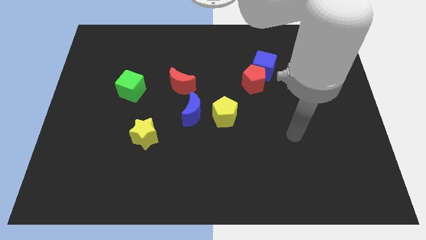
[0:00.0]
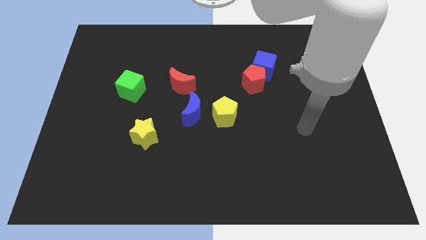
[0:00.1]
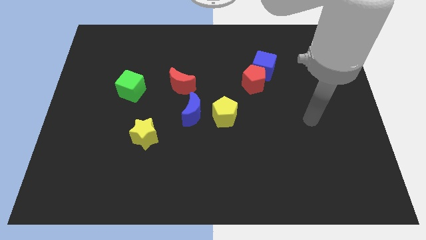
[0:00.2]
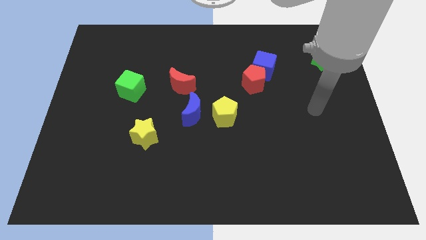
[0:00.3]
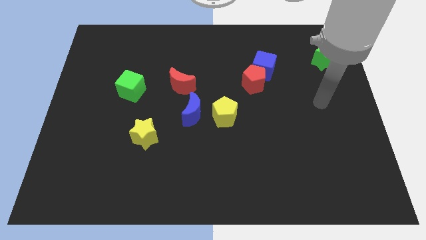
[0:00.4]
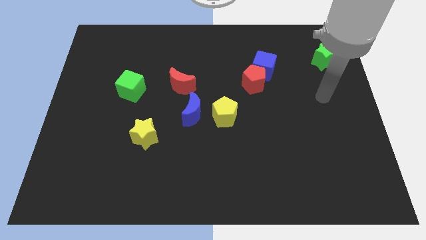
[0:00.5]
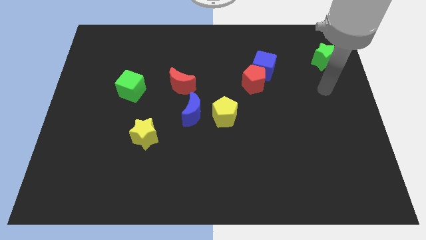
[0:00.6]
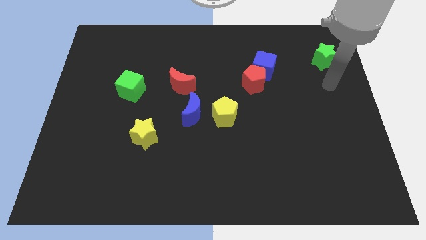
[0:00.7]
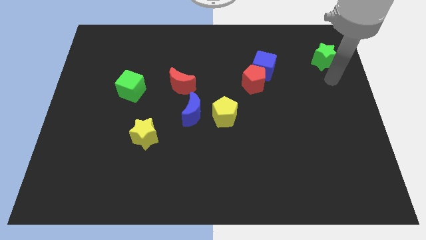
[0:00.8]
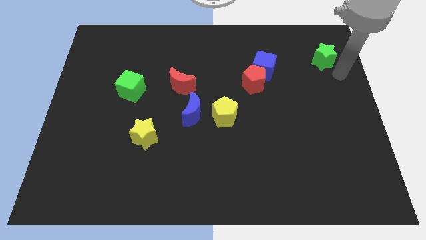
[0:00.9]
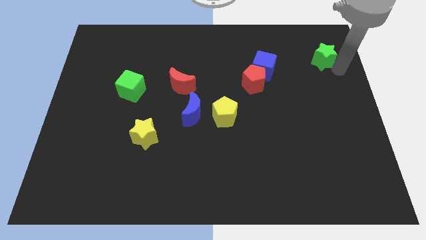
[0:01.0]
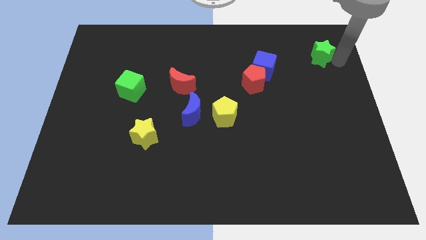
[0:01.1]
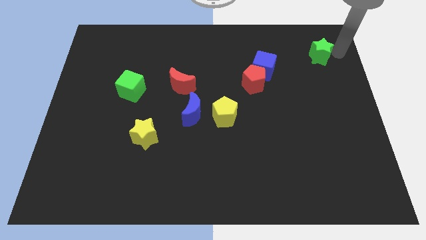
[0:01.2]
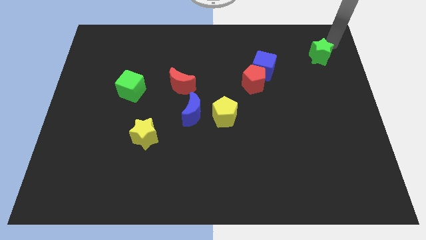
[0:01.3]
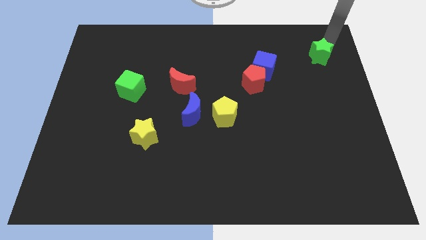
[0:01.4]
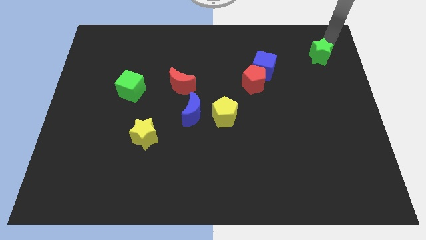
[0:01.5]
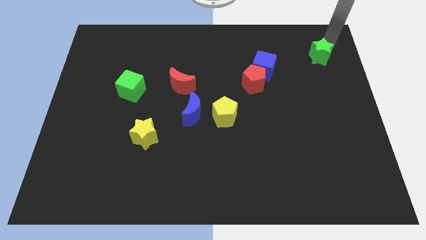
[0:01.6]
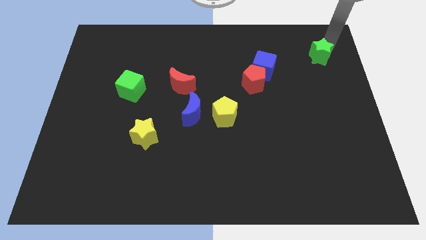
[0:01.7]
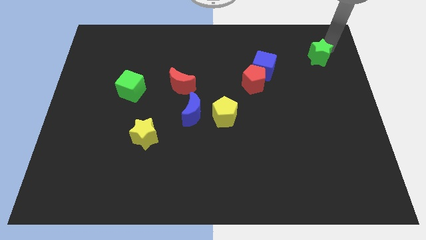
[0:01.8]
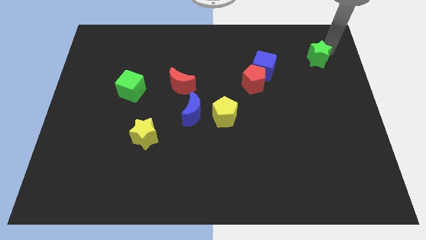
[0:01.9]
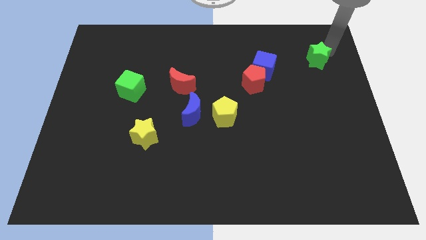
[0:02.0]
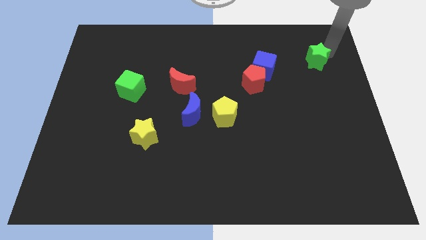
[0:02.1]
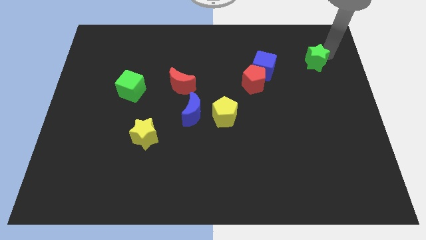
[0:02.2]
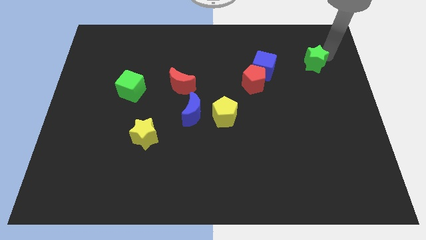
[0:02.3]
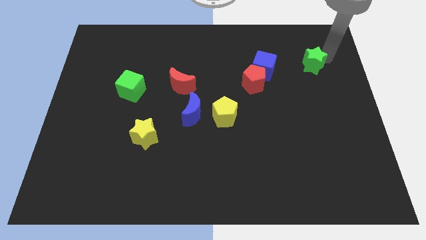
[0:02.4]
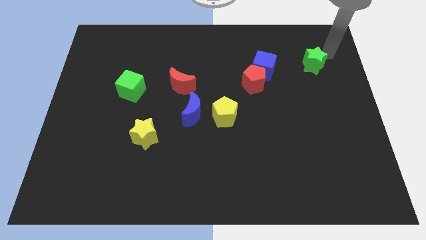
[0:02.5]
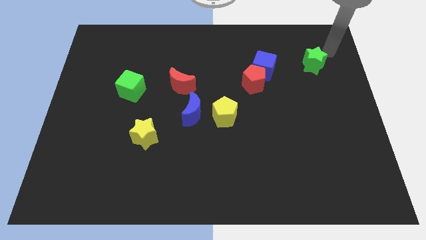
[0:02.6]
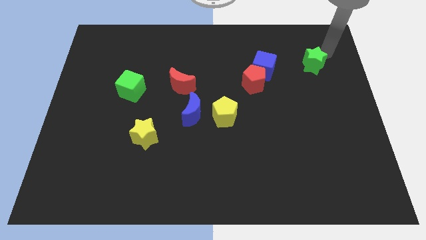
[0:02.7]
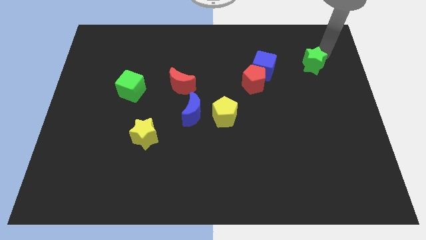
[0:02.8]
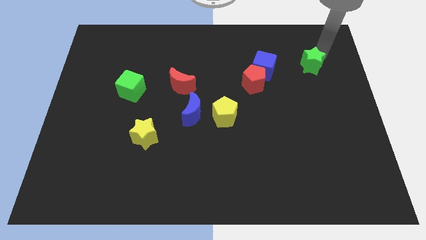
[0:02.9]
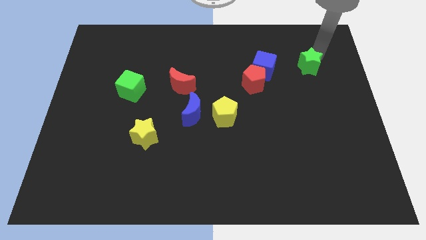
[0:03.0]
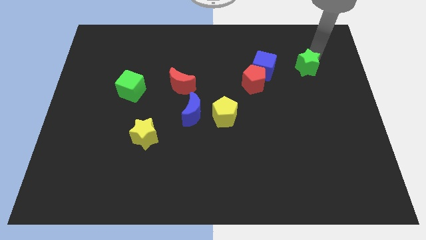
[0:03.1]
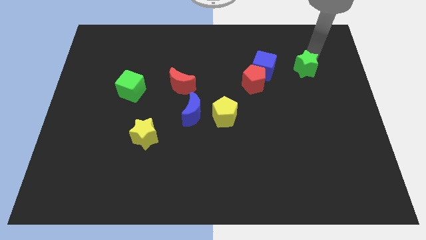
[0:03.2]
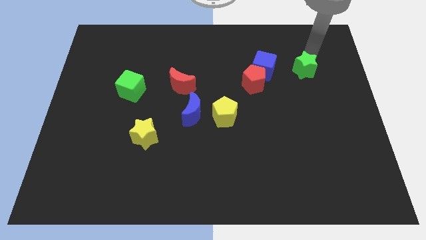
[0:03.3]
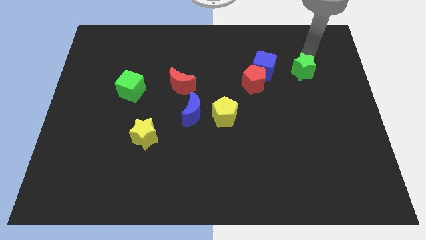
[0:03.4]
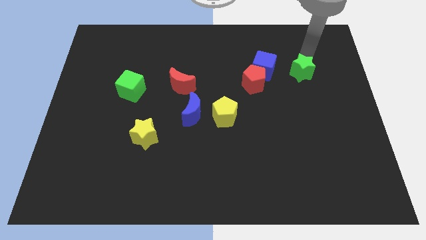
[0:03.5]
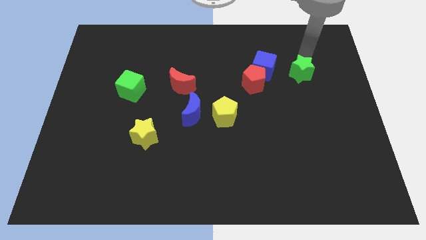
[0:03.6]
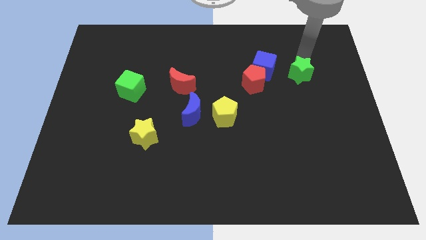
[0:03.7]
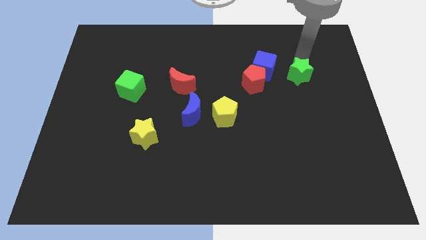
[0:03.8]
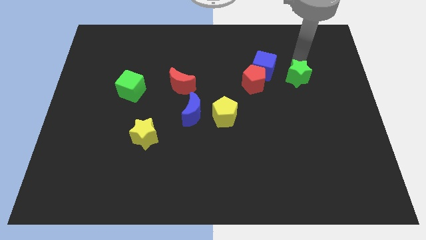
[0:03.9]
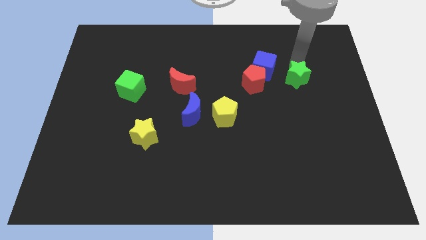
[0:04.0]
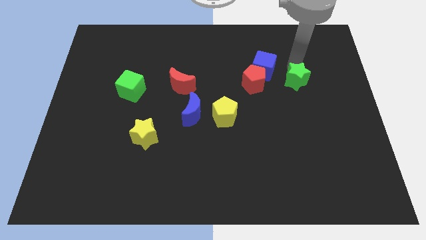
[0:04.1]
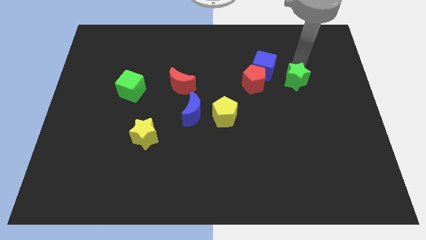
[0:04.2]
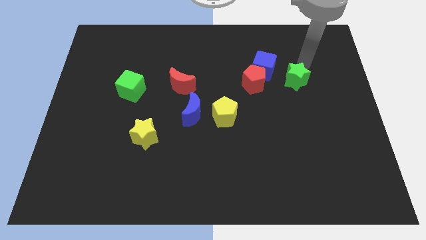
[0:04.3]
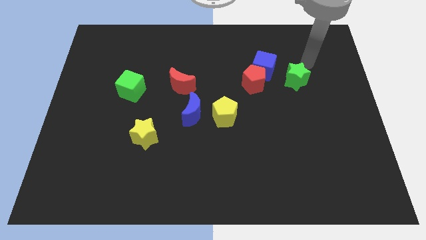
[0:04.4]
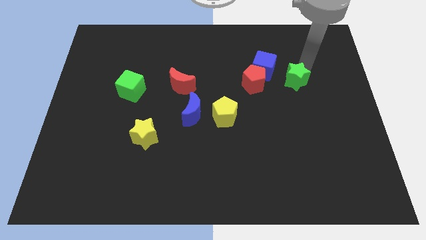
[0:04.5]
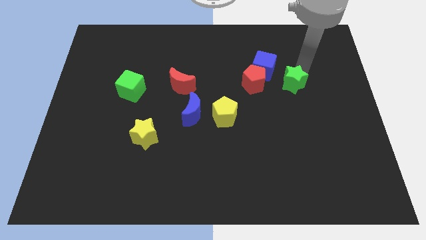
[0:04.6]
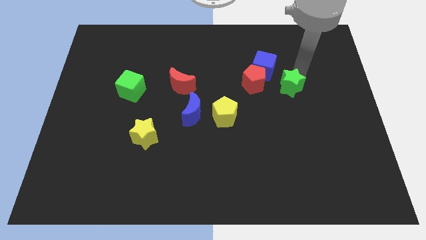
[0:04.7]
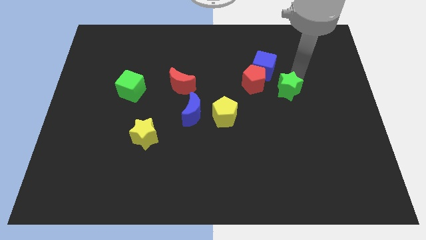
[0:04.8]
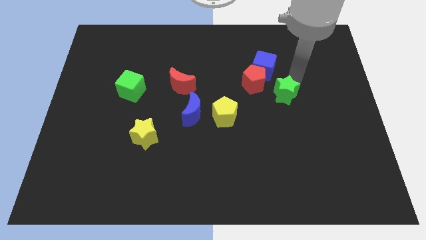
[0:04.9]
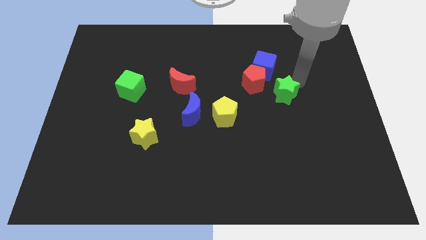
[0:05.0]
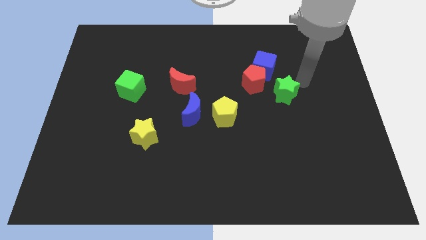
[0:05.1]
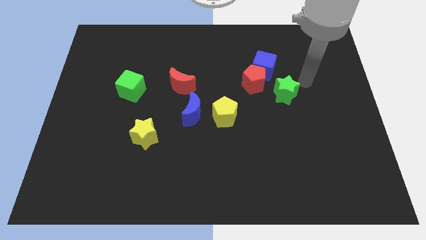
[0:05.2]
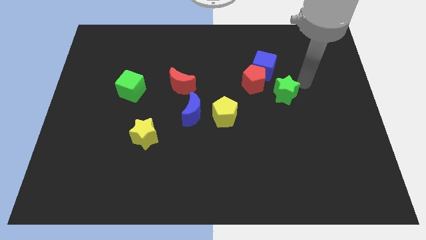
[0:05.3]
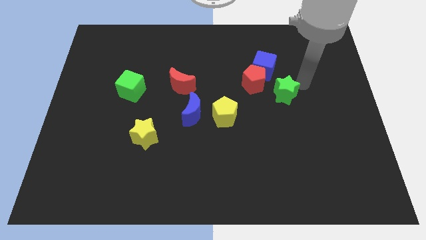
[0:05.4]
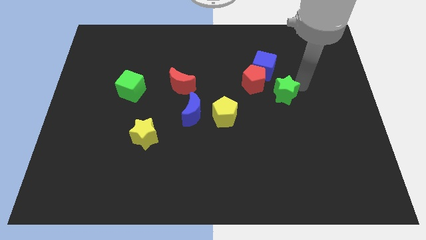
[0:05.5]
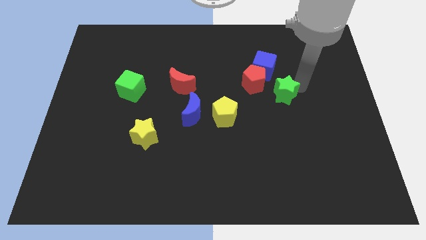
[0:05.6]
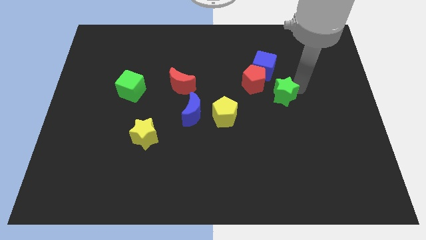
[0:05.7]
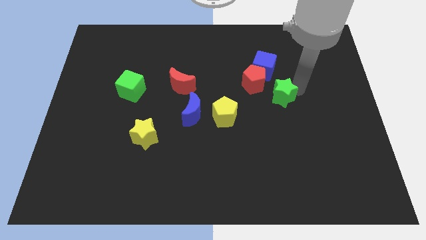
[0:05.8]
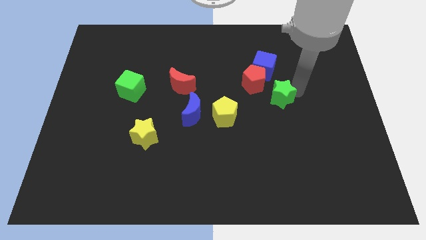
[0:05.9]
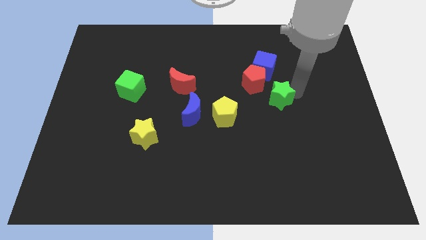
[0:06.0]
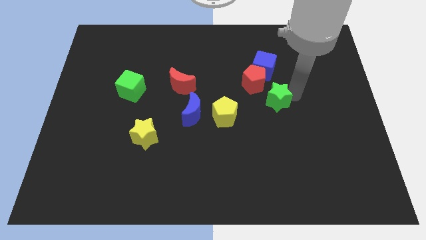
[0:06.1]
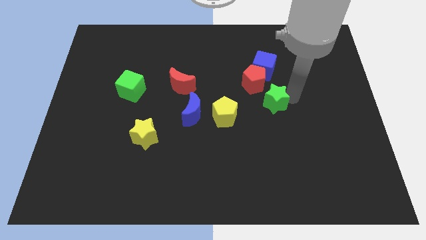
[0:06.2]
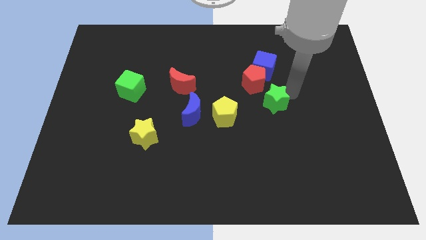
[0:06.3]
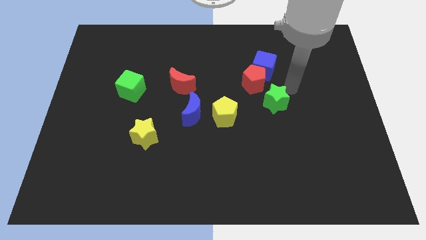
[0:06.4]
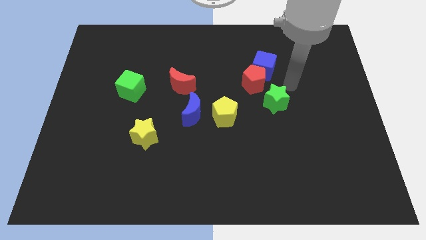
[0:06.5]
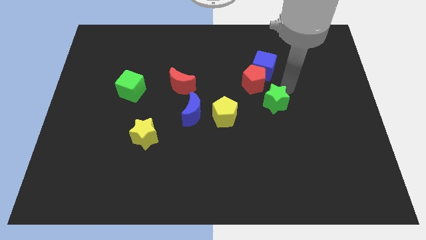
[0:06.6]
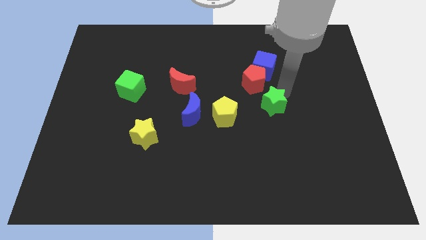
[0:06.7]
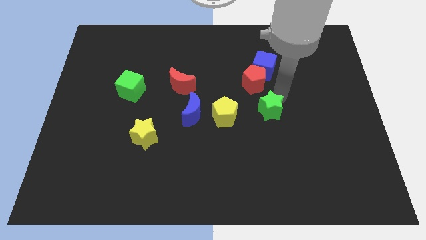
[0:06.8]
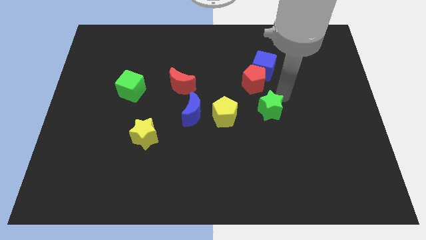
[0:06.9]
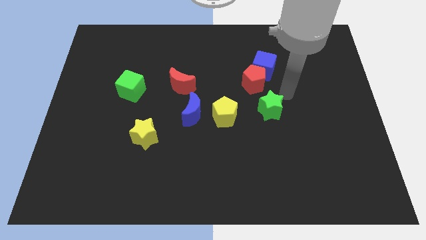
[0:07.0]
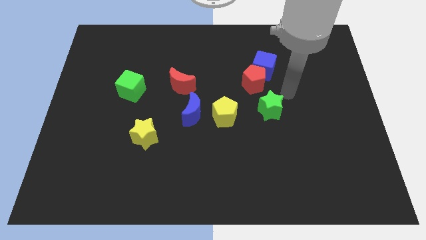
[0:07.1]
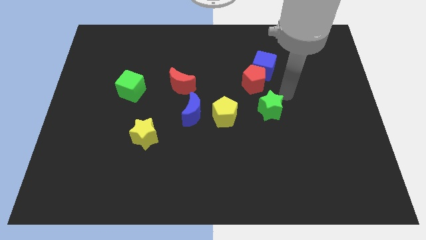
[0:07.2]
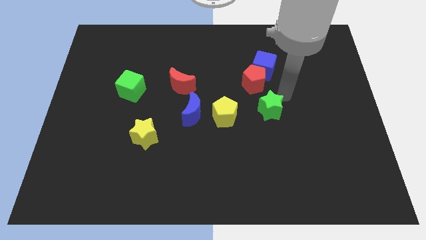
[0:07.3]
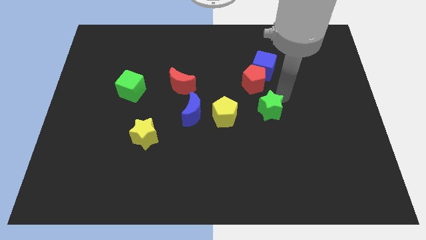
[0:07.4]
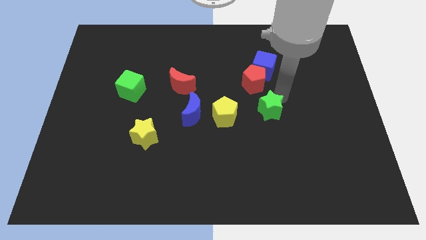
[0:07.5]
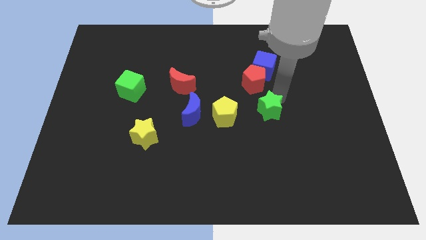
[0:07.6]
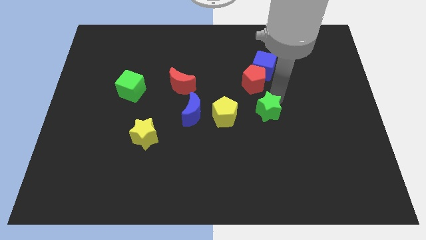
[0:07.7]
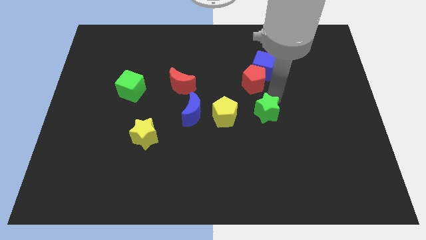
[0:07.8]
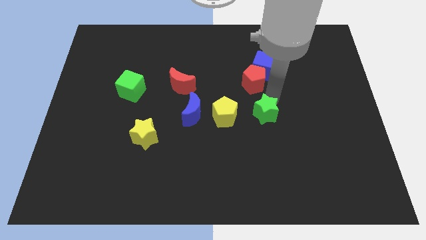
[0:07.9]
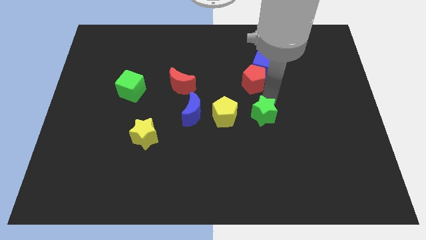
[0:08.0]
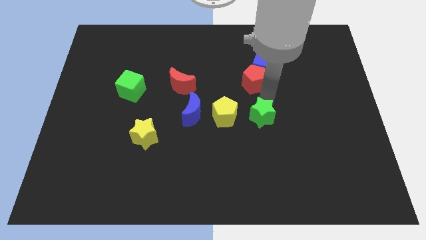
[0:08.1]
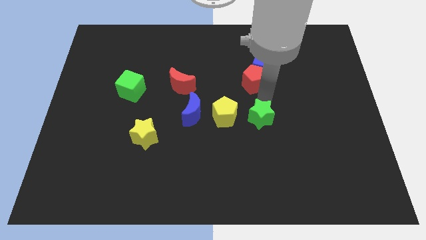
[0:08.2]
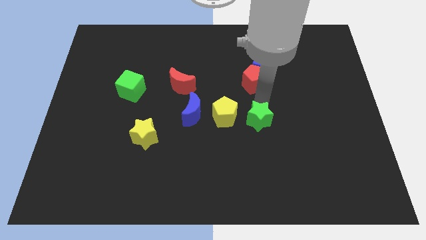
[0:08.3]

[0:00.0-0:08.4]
slide the green star diagonally down and to the right of the yellow pentagon
